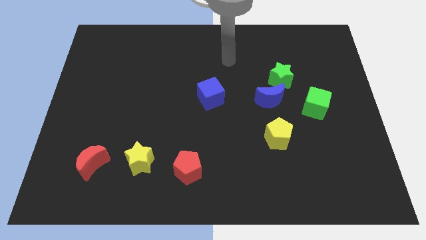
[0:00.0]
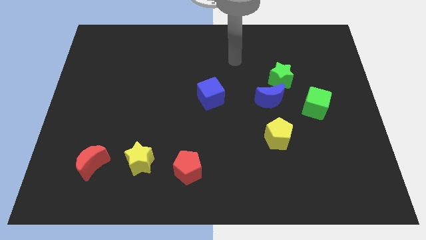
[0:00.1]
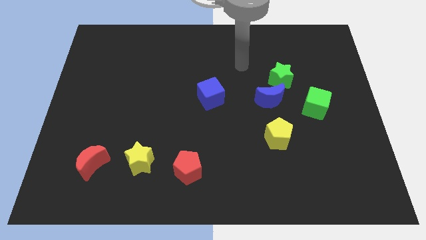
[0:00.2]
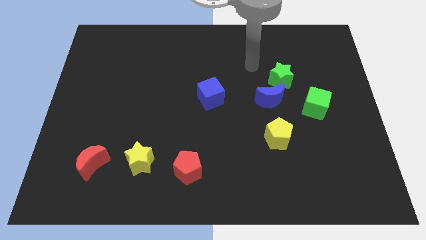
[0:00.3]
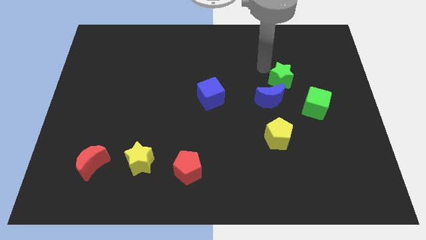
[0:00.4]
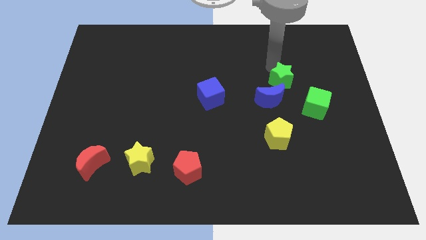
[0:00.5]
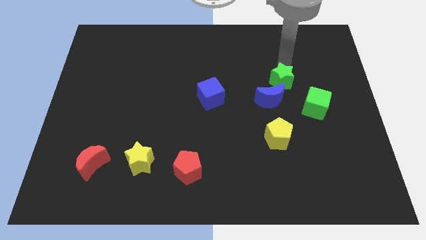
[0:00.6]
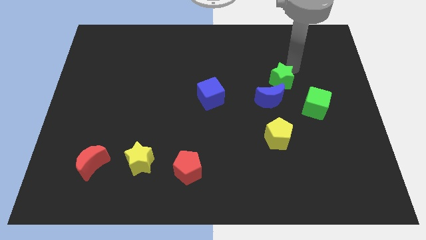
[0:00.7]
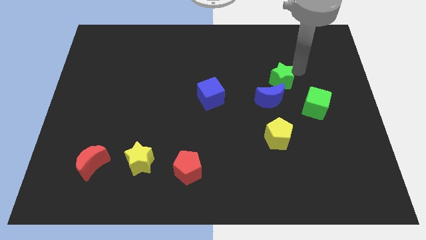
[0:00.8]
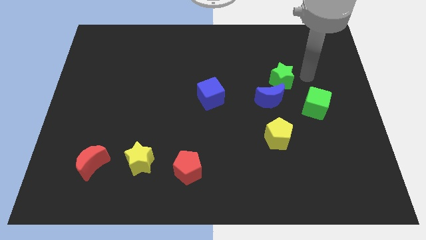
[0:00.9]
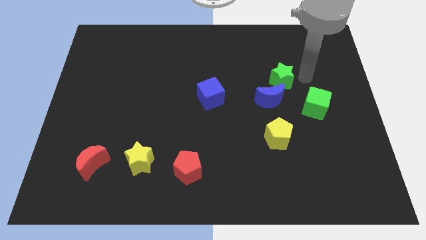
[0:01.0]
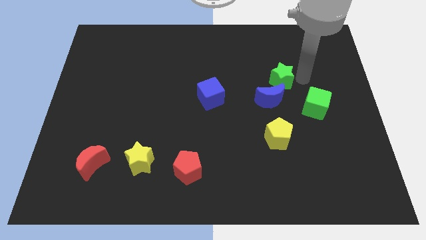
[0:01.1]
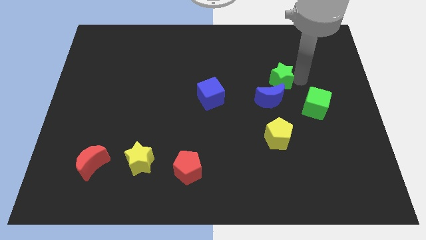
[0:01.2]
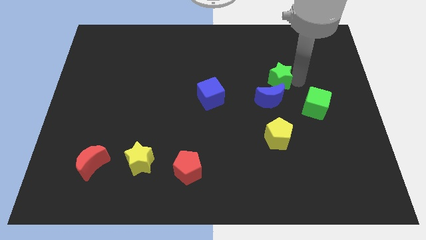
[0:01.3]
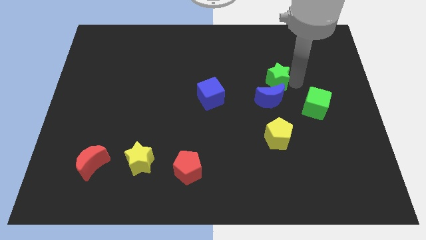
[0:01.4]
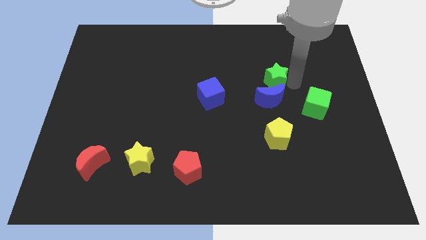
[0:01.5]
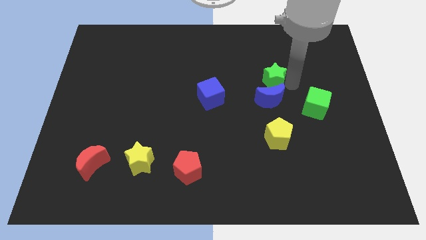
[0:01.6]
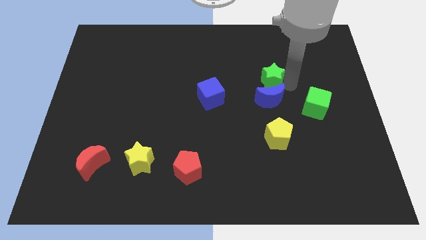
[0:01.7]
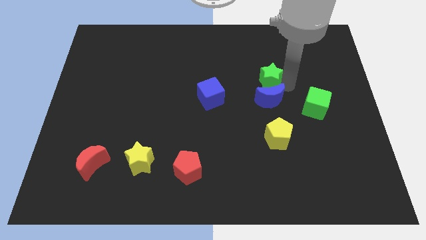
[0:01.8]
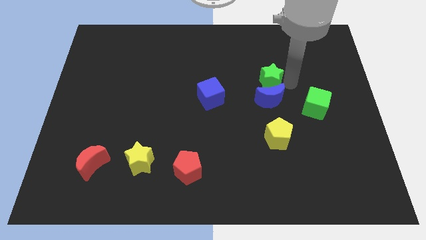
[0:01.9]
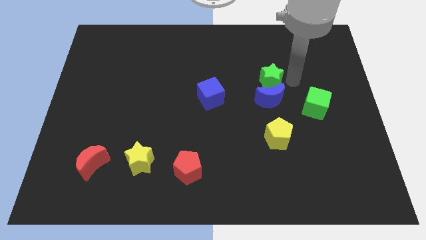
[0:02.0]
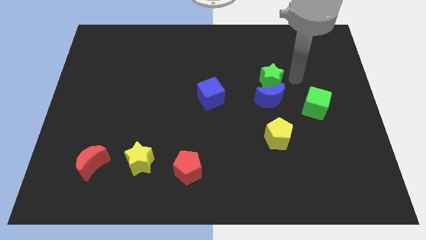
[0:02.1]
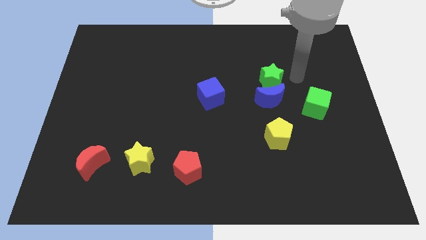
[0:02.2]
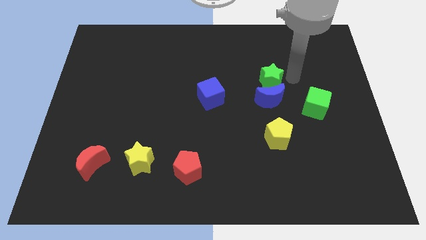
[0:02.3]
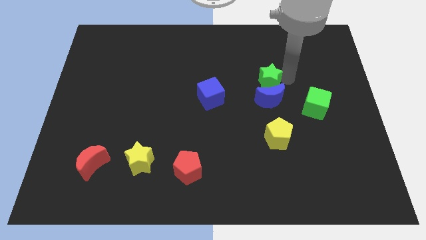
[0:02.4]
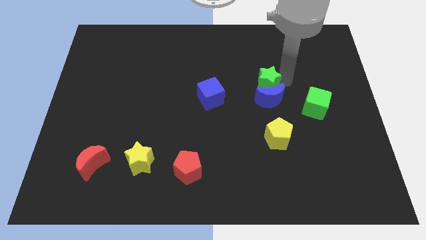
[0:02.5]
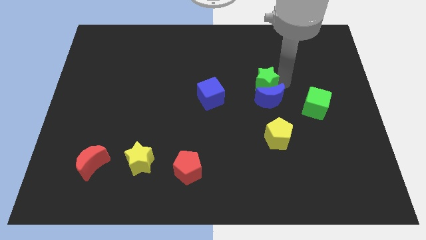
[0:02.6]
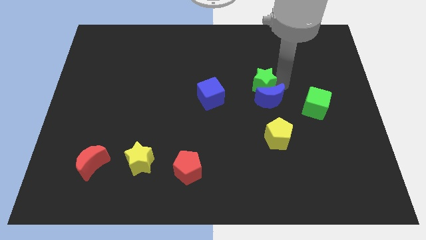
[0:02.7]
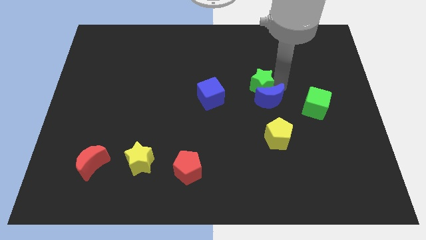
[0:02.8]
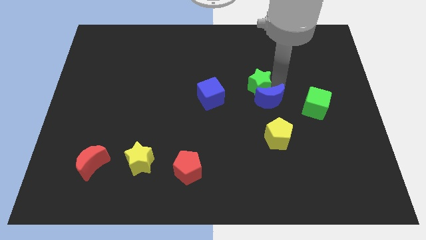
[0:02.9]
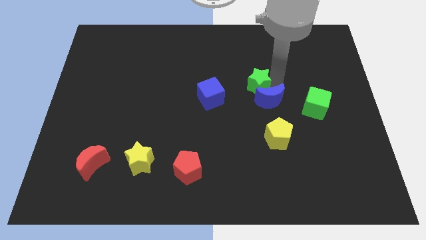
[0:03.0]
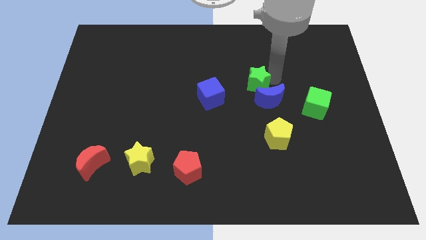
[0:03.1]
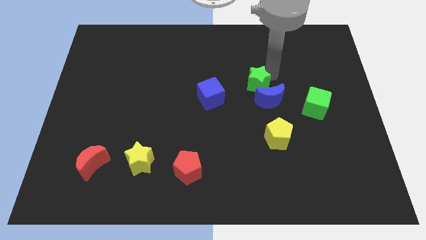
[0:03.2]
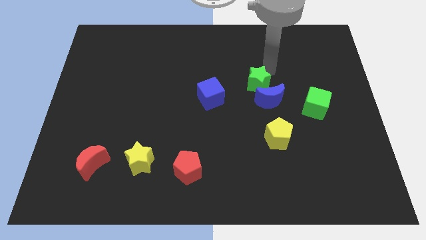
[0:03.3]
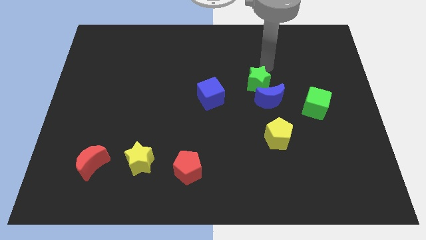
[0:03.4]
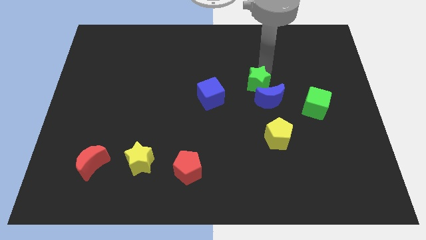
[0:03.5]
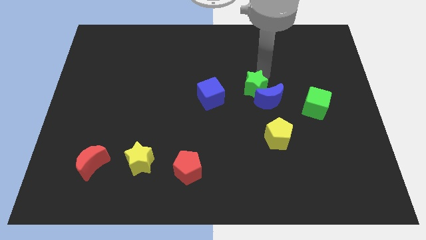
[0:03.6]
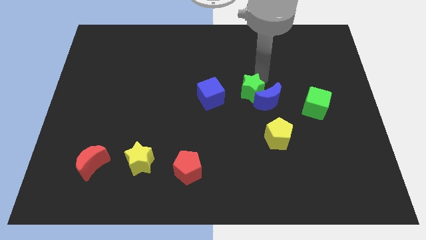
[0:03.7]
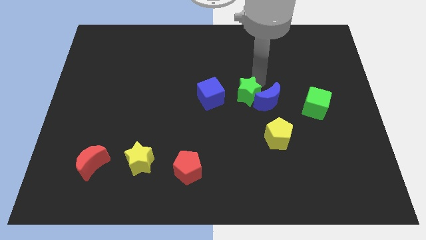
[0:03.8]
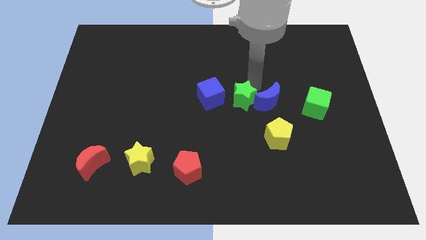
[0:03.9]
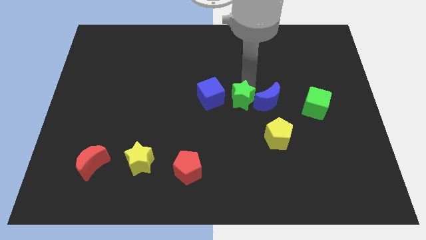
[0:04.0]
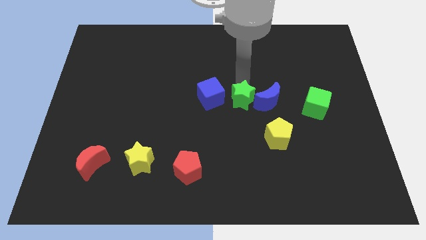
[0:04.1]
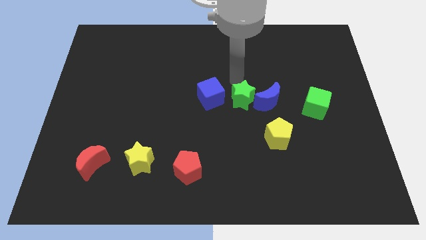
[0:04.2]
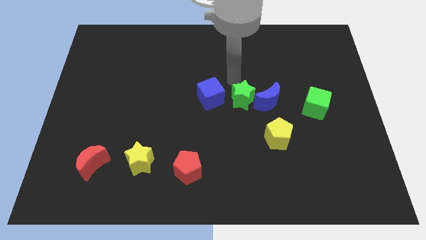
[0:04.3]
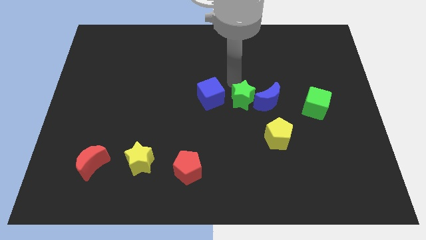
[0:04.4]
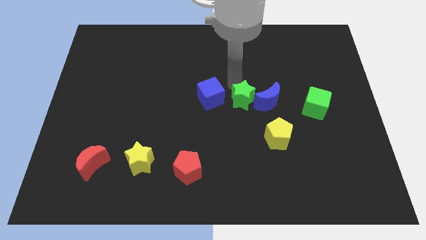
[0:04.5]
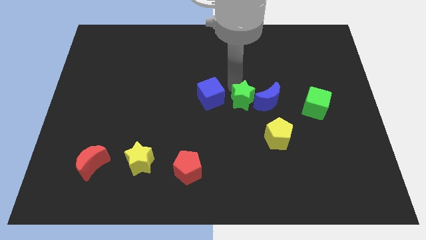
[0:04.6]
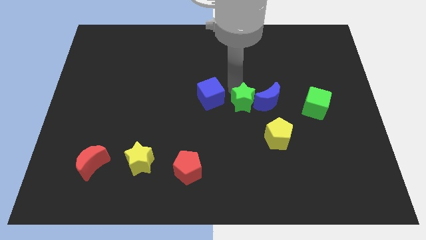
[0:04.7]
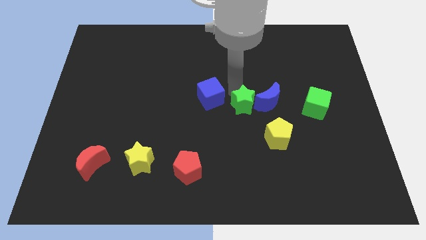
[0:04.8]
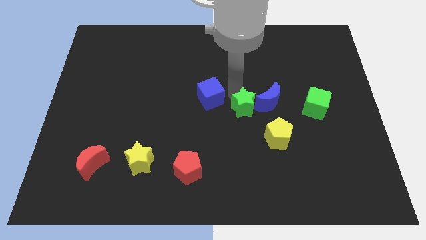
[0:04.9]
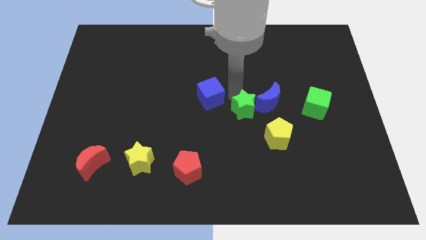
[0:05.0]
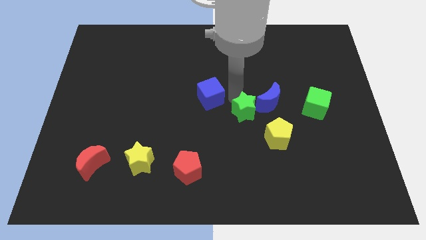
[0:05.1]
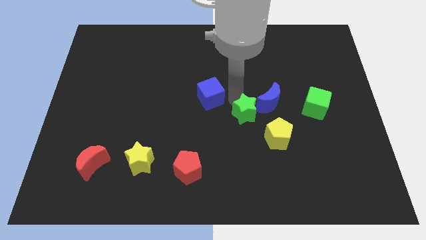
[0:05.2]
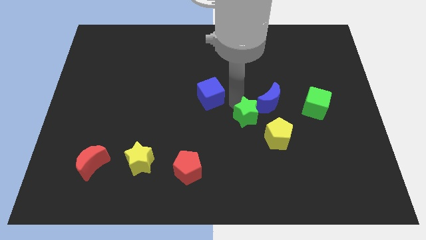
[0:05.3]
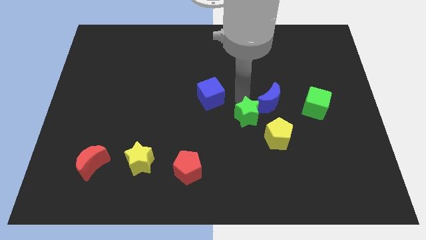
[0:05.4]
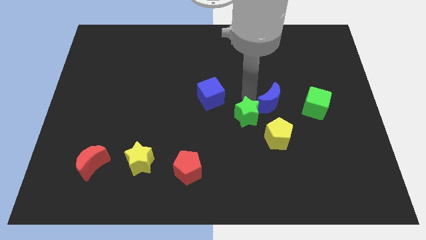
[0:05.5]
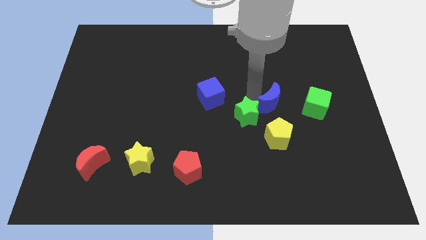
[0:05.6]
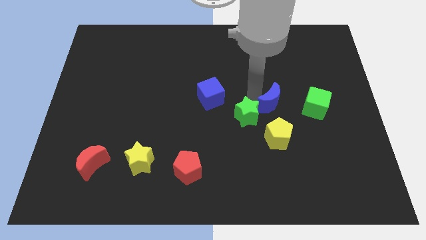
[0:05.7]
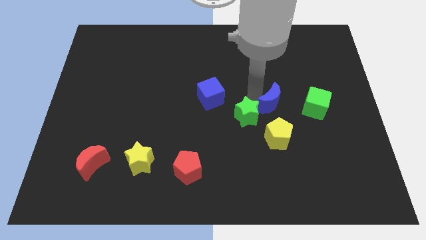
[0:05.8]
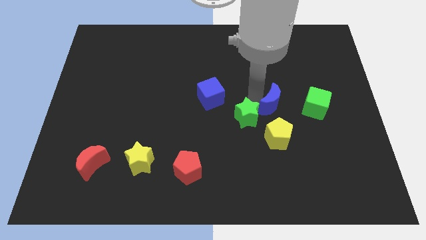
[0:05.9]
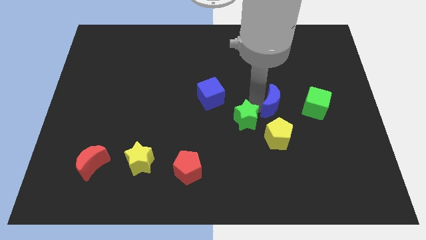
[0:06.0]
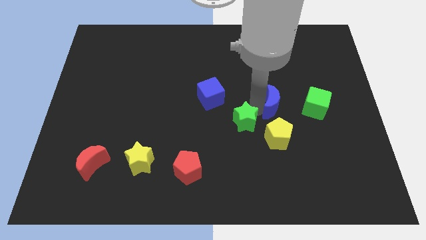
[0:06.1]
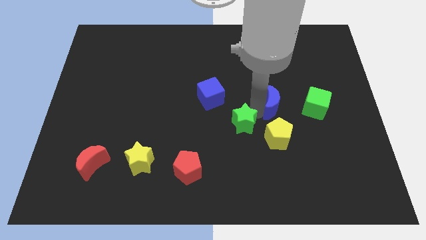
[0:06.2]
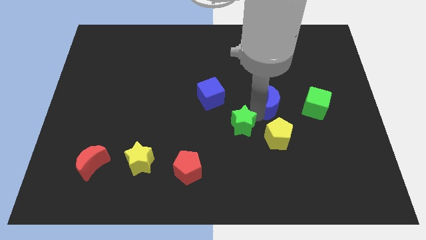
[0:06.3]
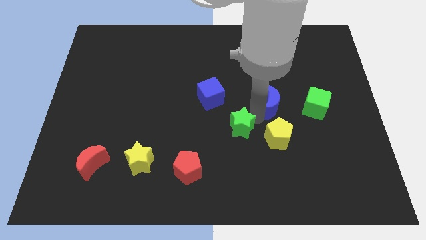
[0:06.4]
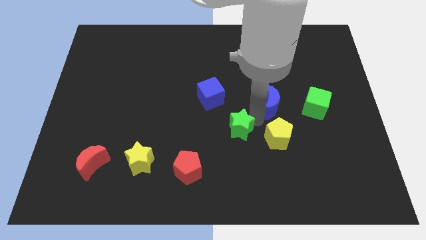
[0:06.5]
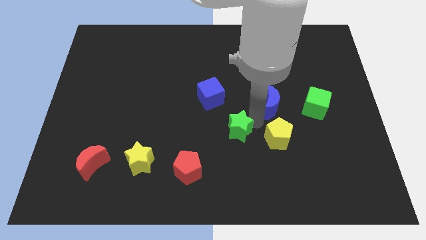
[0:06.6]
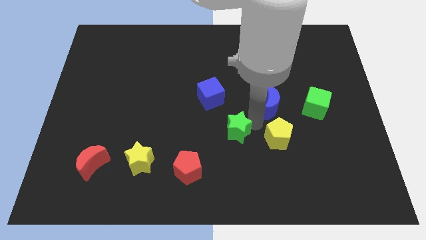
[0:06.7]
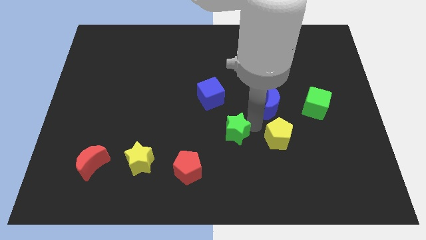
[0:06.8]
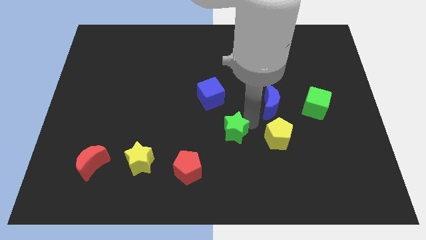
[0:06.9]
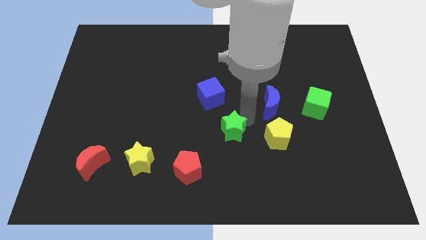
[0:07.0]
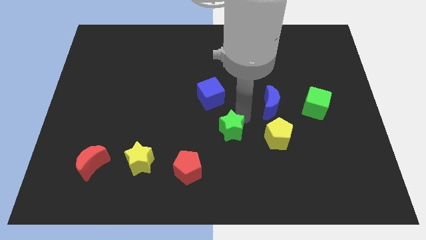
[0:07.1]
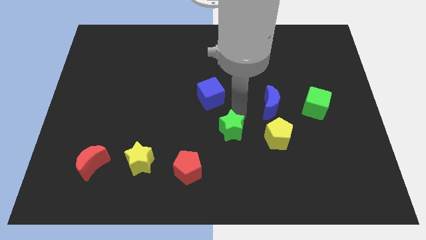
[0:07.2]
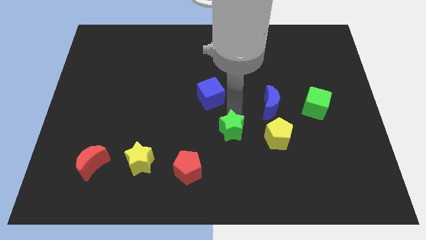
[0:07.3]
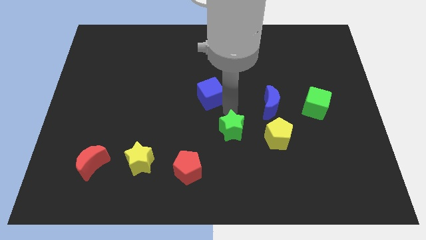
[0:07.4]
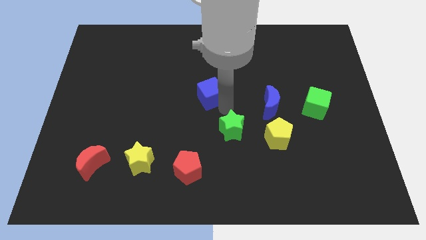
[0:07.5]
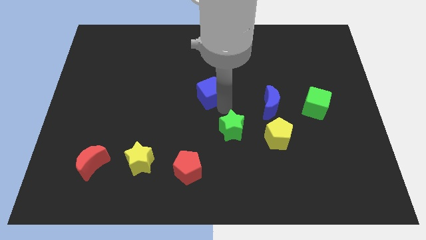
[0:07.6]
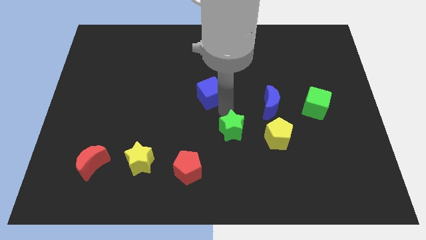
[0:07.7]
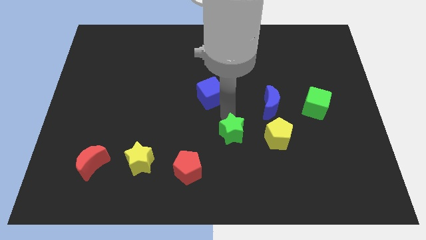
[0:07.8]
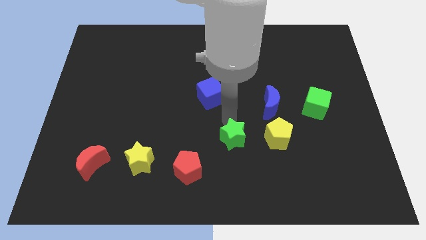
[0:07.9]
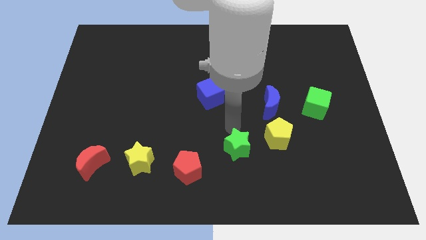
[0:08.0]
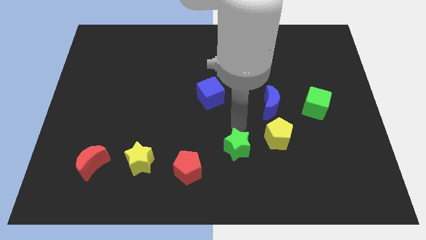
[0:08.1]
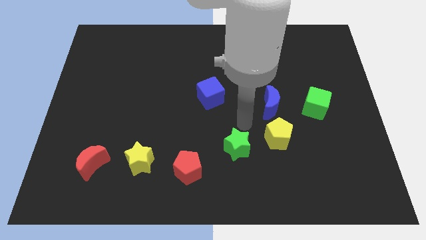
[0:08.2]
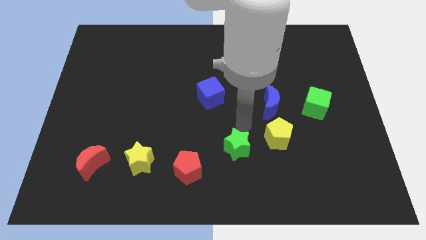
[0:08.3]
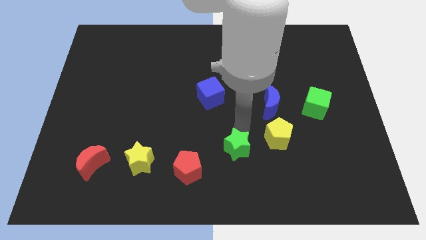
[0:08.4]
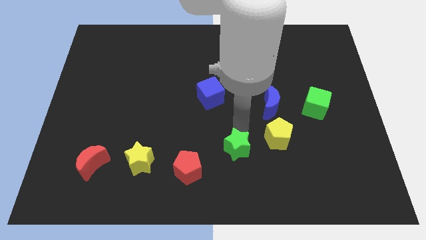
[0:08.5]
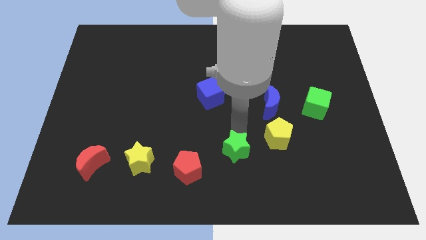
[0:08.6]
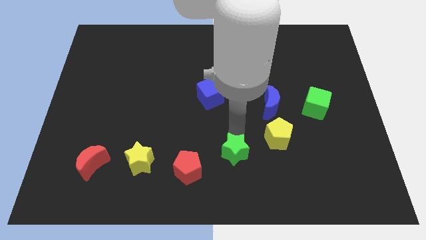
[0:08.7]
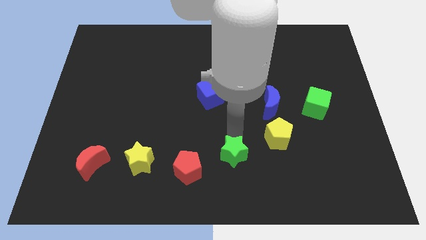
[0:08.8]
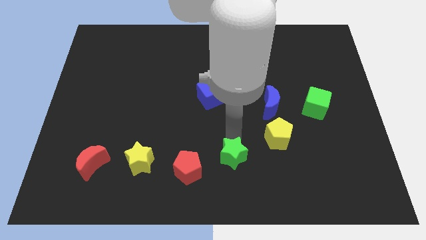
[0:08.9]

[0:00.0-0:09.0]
move the green star to the bottom
